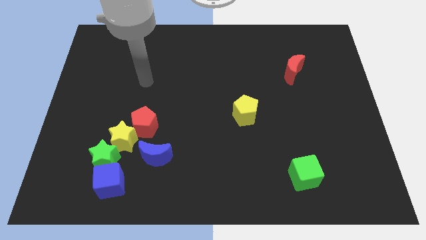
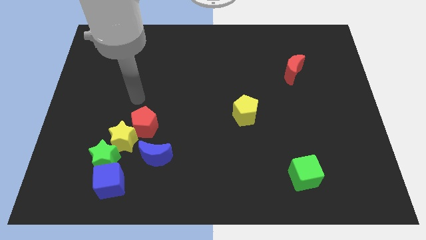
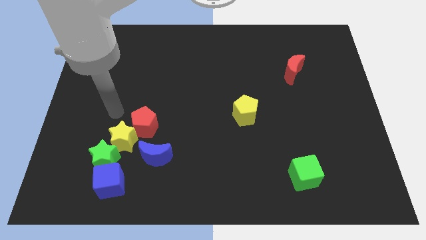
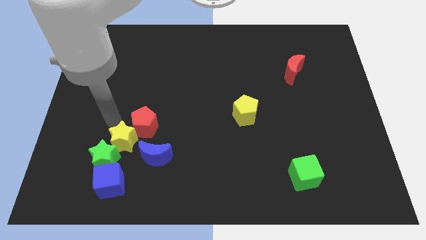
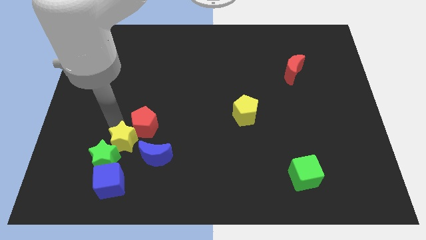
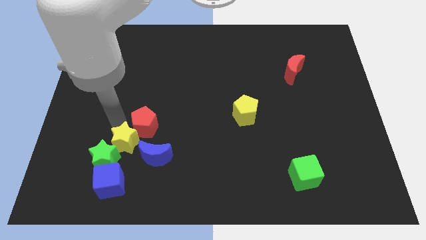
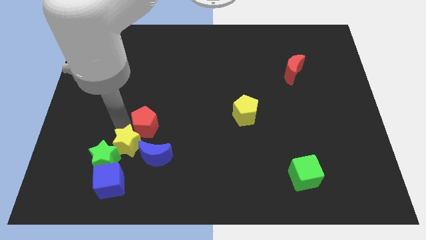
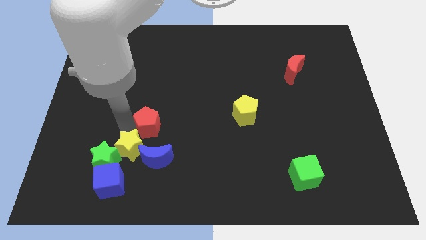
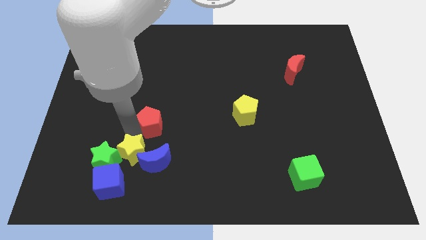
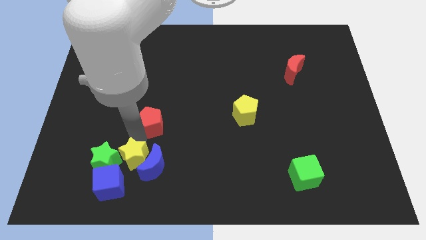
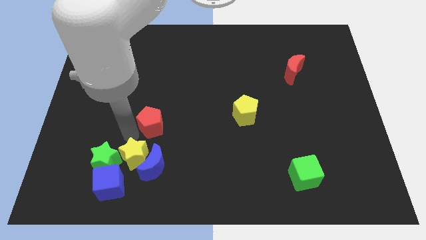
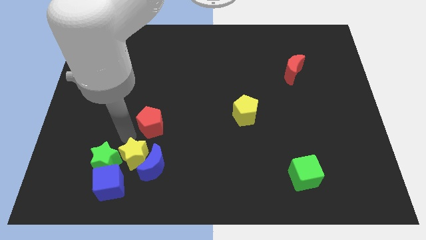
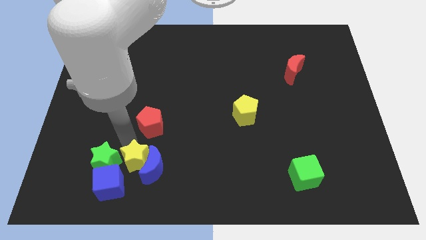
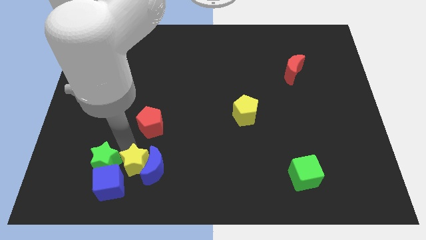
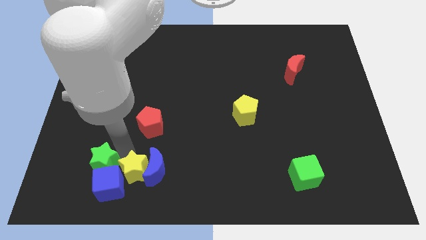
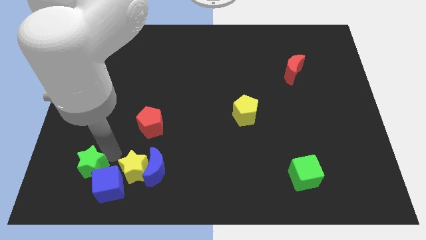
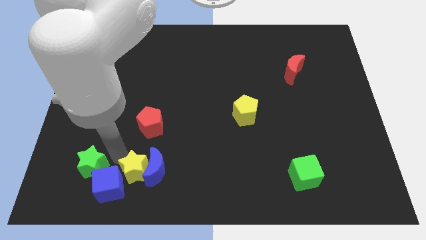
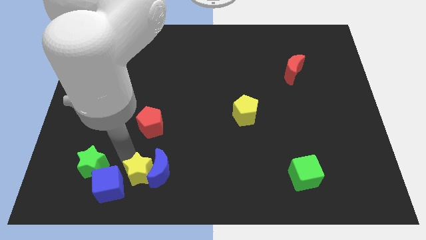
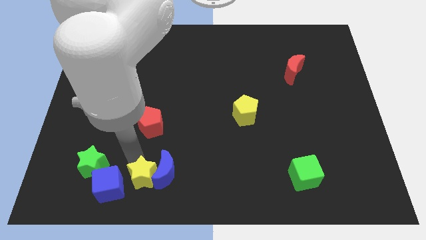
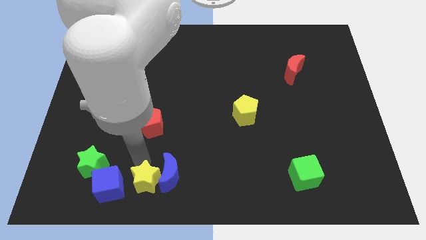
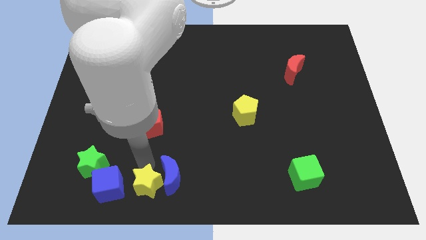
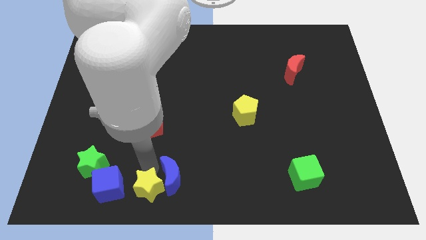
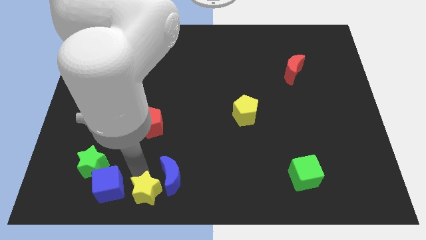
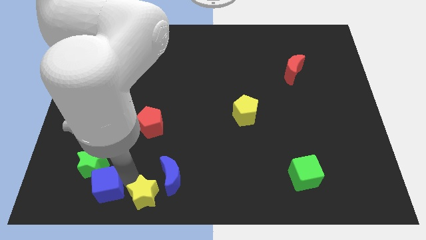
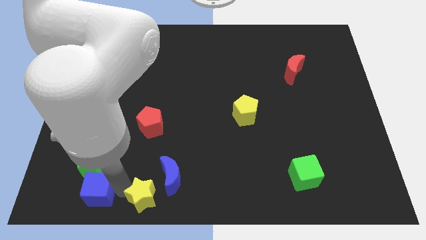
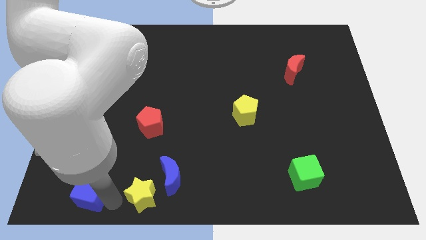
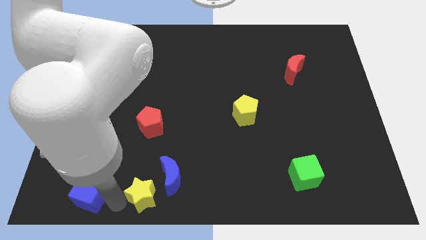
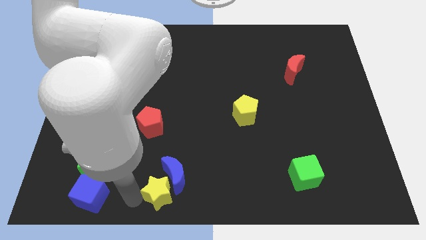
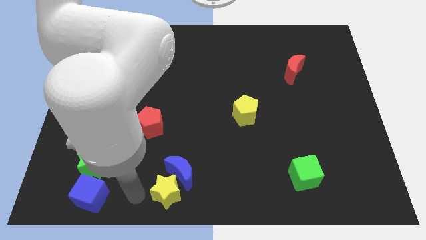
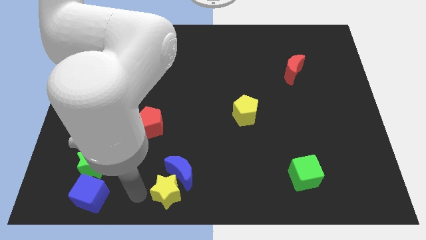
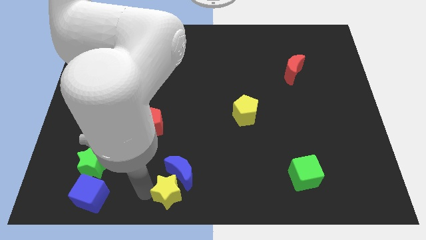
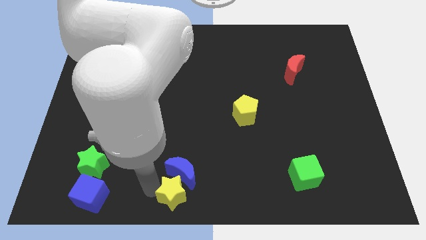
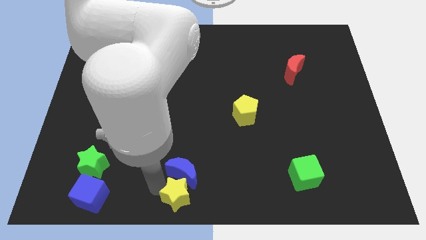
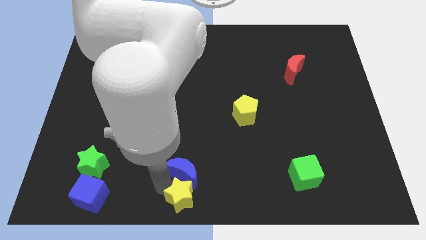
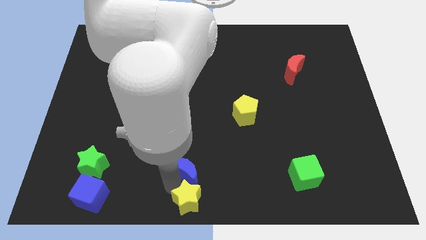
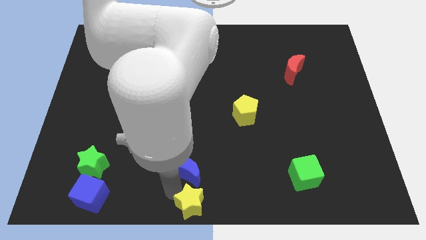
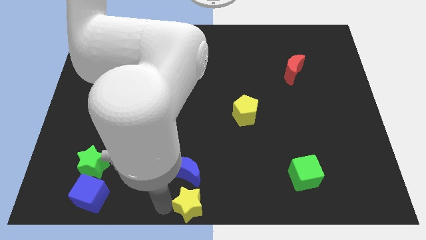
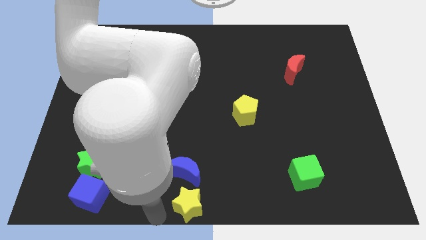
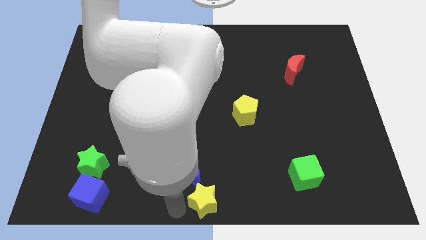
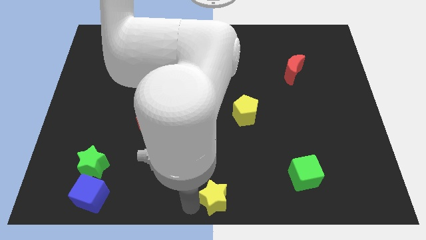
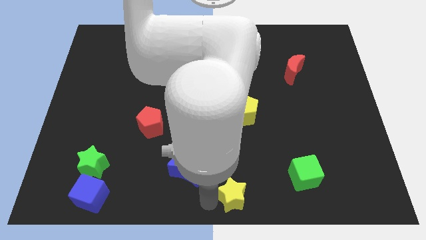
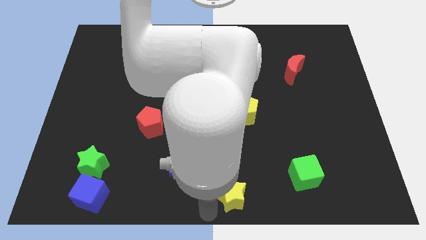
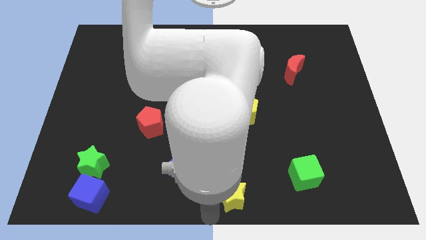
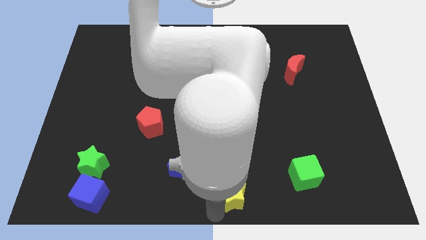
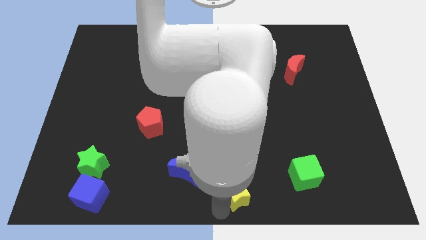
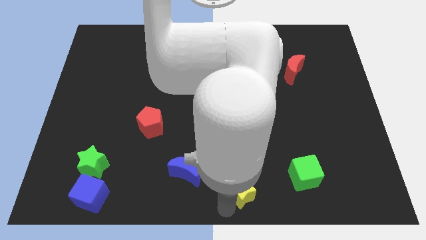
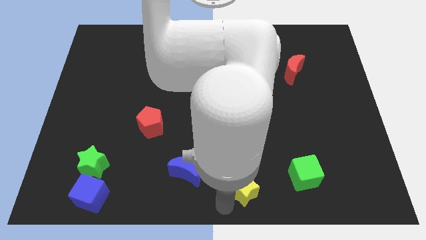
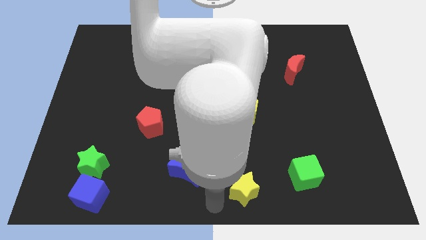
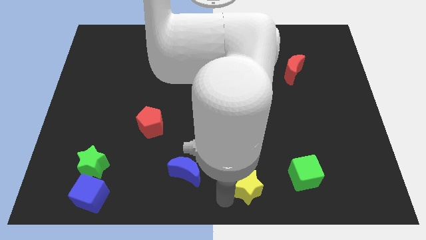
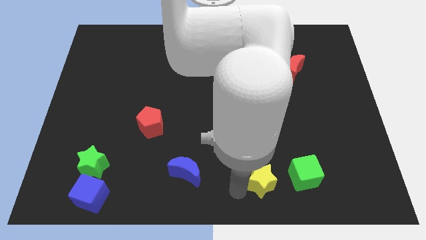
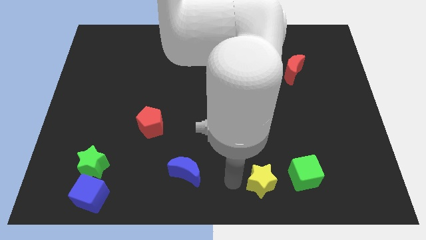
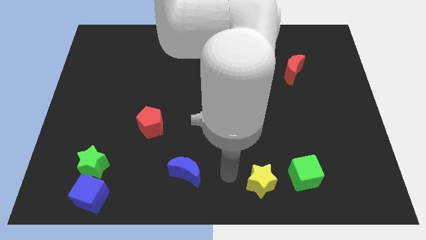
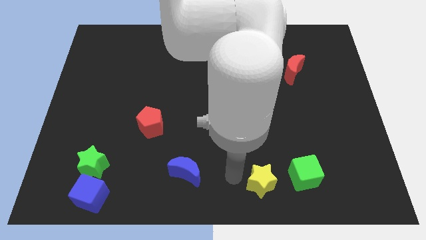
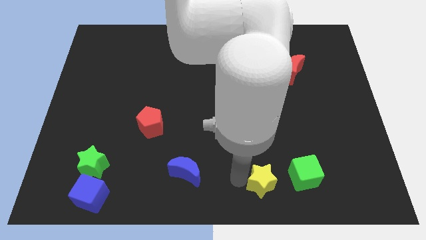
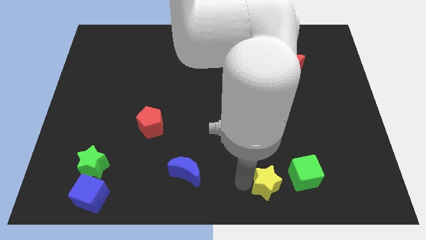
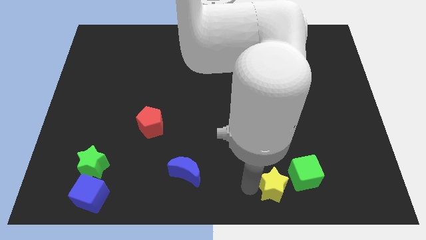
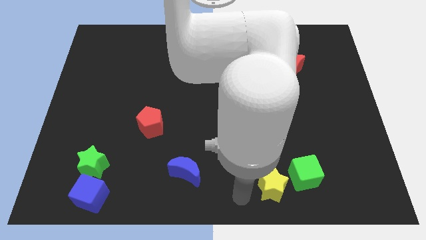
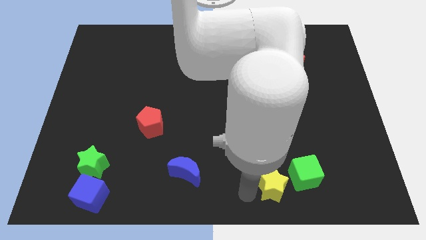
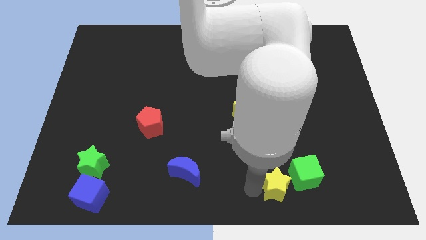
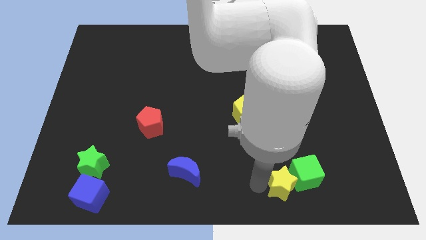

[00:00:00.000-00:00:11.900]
put the yellow star towards the green cube

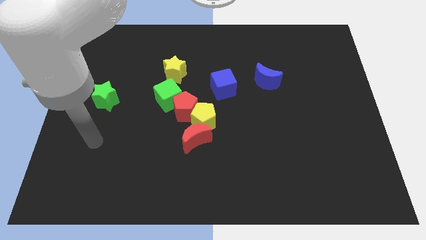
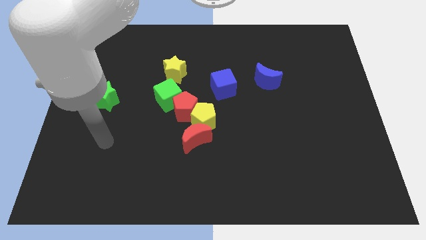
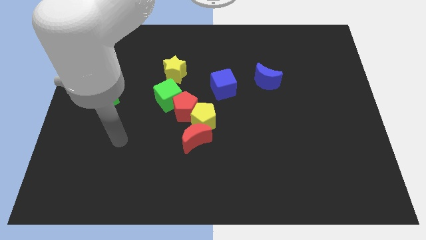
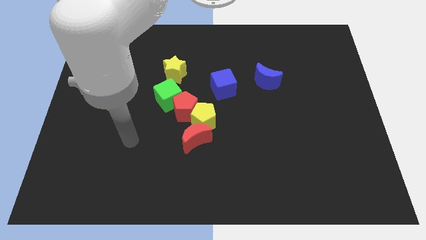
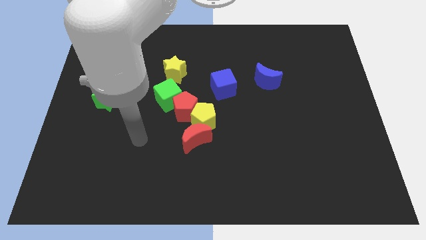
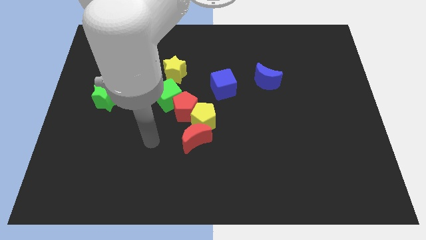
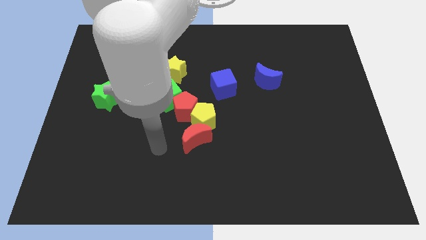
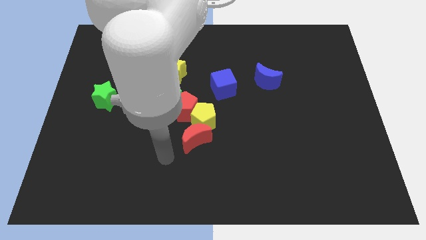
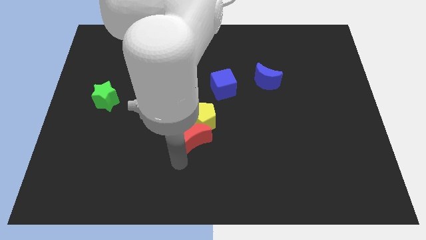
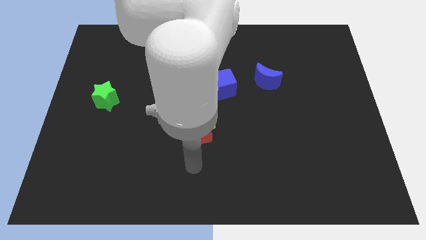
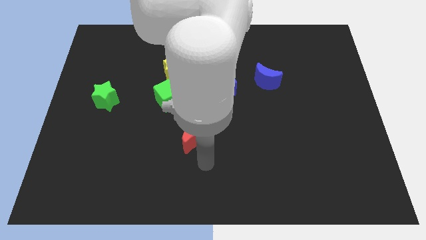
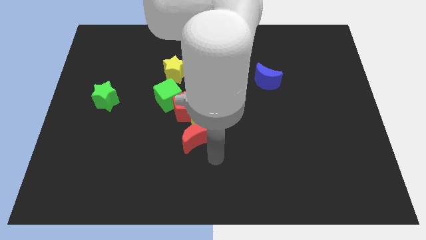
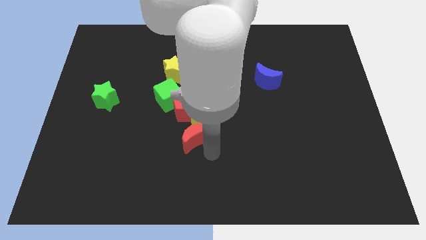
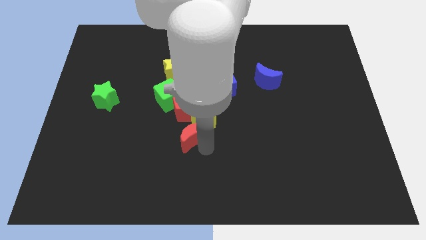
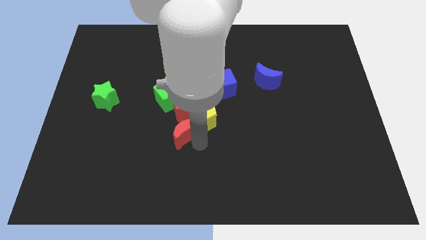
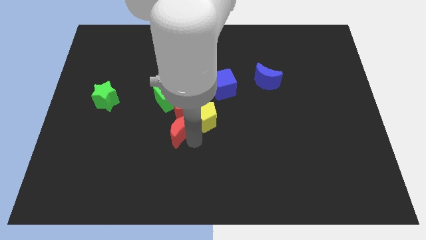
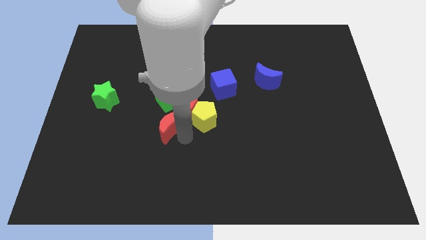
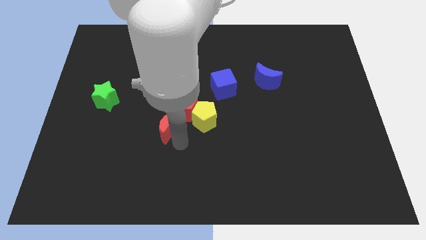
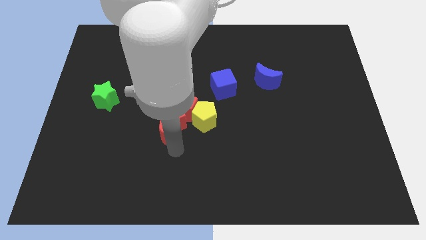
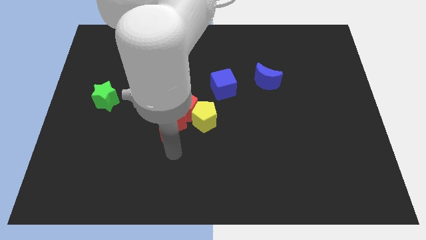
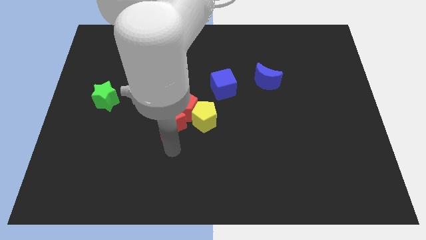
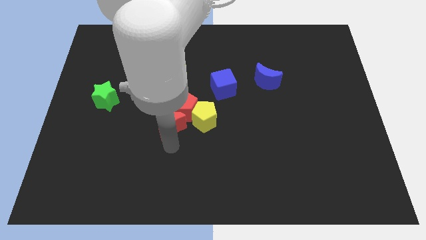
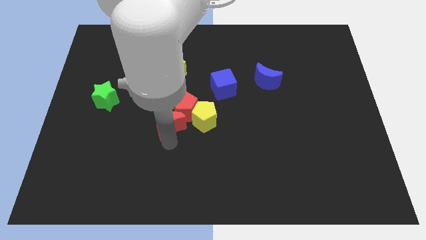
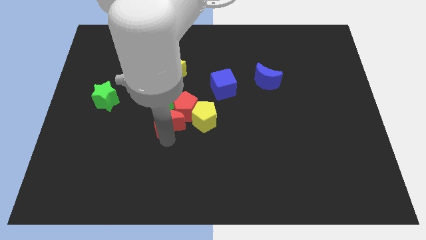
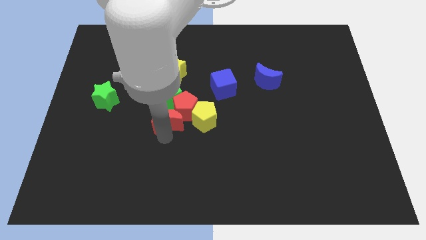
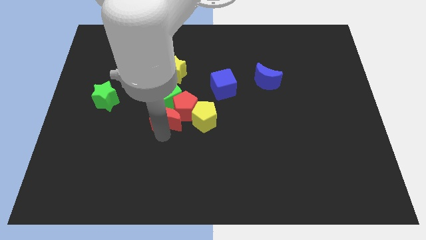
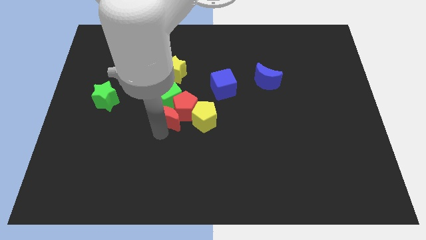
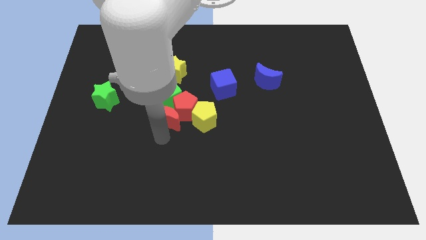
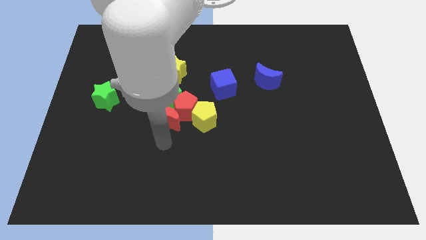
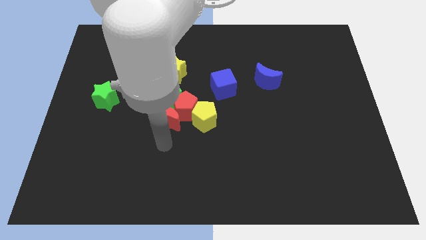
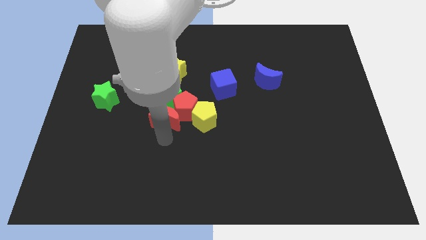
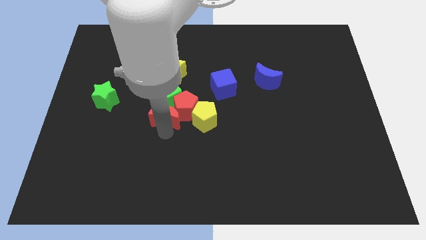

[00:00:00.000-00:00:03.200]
move the red moon to the green cube
